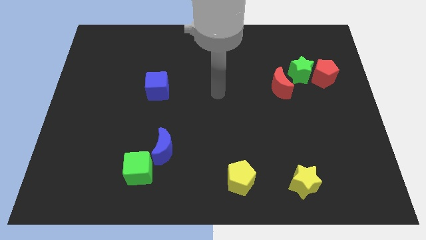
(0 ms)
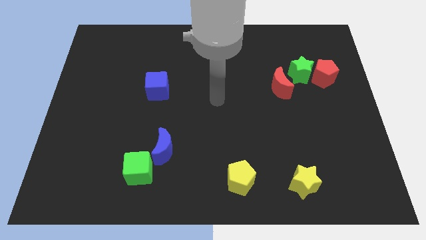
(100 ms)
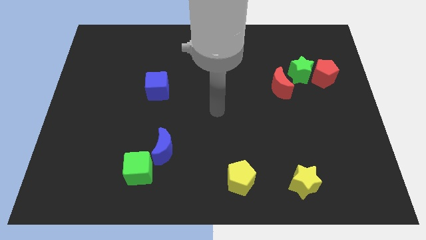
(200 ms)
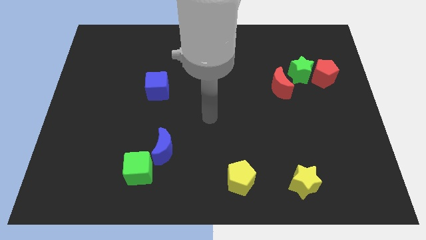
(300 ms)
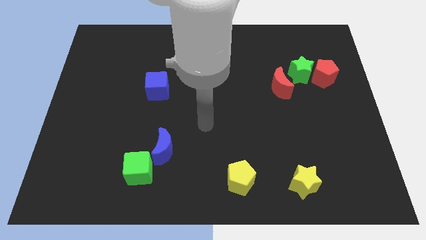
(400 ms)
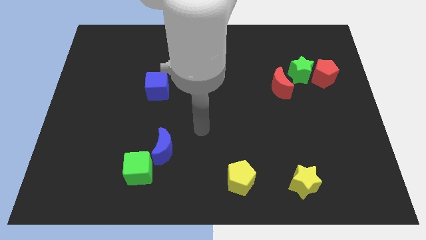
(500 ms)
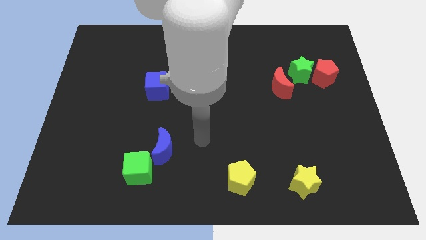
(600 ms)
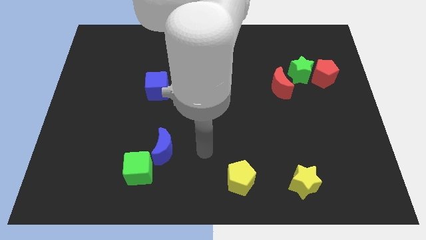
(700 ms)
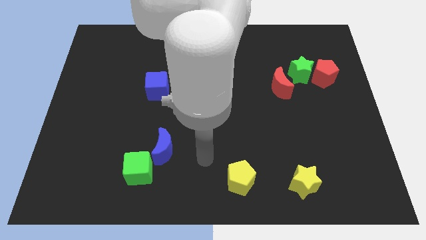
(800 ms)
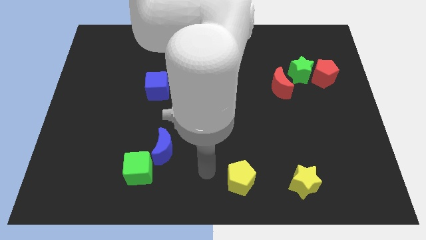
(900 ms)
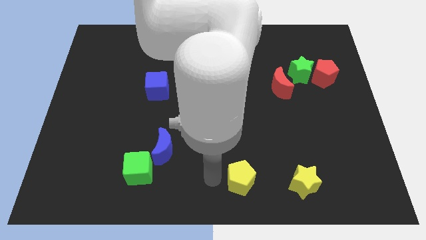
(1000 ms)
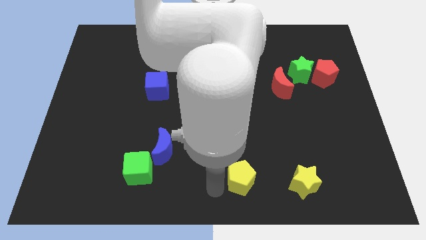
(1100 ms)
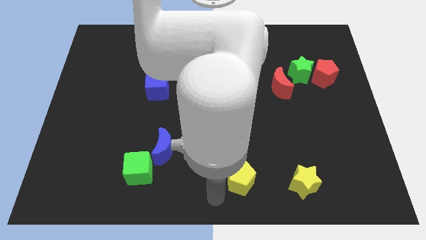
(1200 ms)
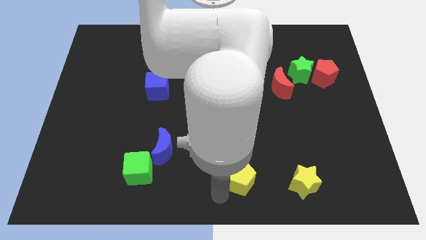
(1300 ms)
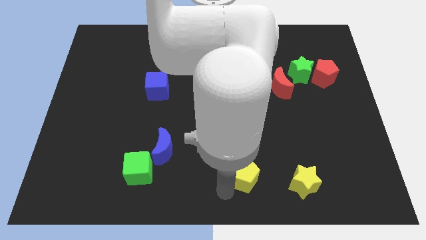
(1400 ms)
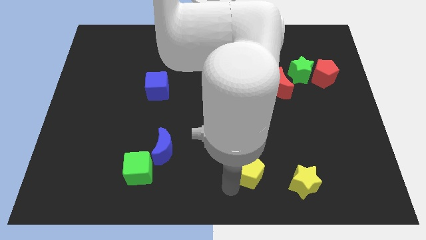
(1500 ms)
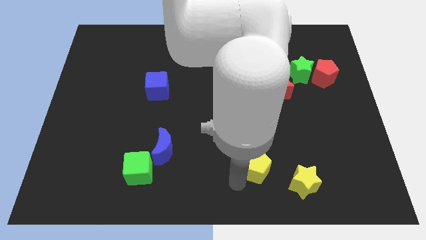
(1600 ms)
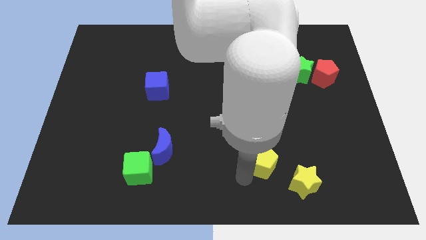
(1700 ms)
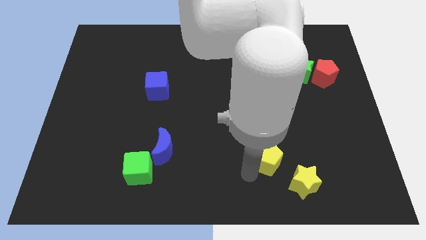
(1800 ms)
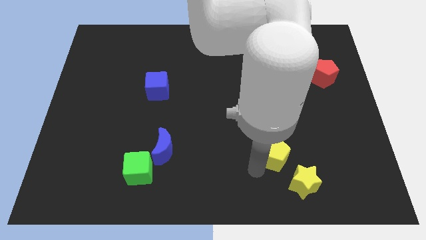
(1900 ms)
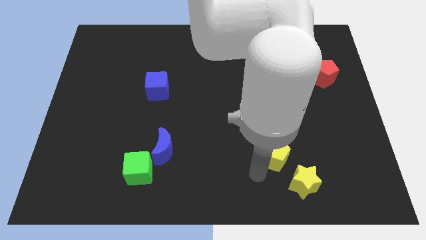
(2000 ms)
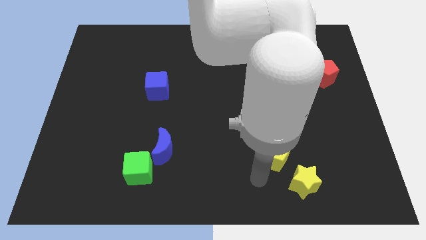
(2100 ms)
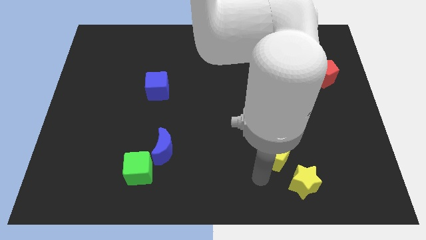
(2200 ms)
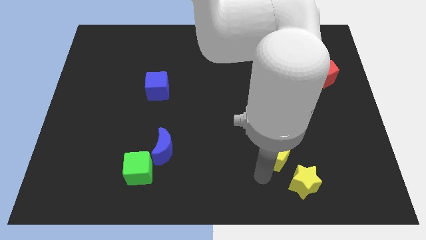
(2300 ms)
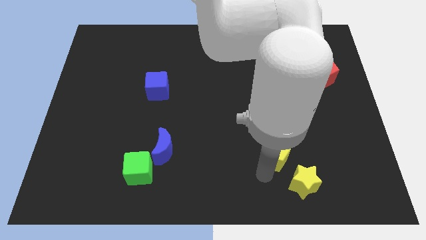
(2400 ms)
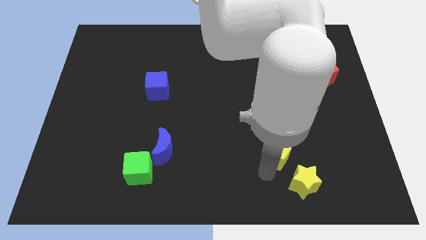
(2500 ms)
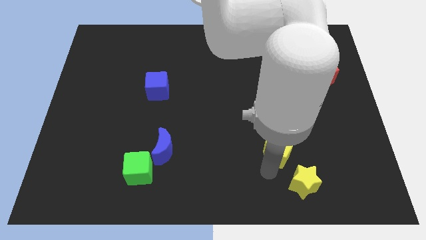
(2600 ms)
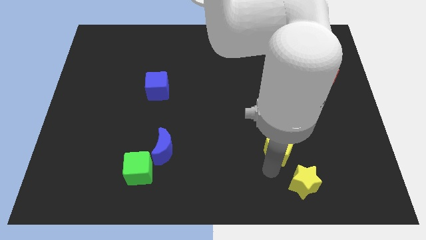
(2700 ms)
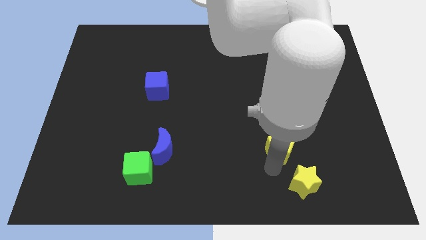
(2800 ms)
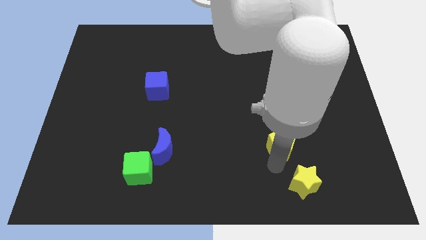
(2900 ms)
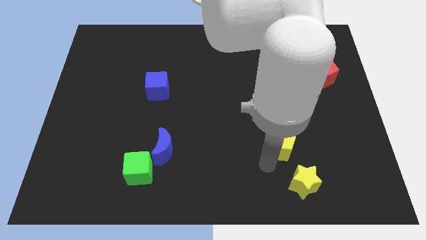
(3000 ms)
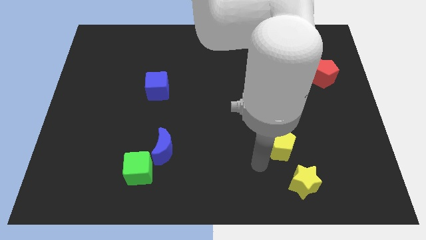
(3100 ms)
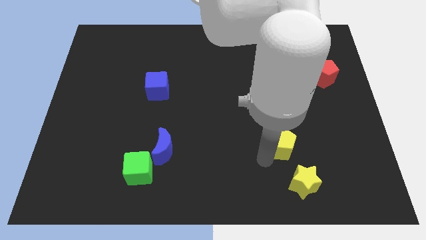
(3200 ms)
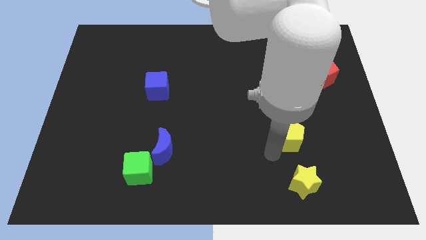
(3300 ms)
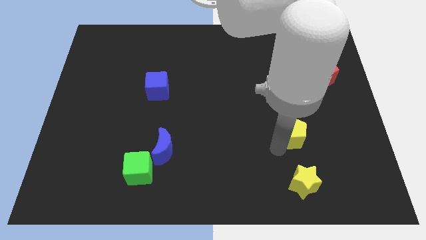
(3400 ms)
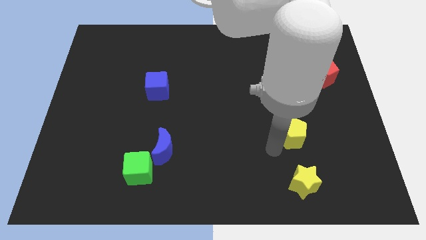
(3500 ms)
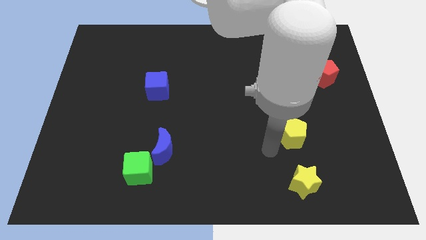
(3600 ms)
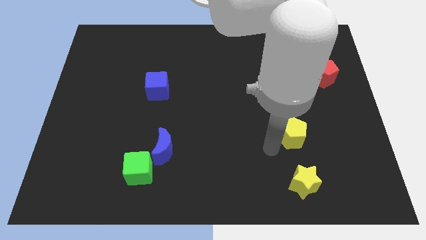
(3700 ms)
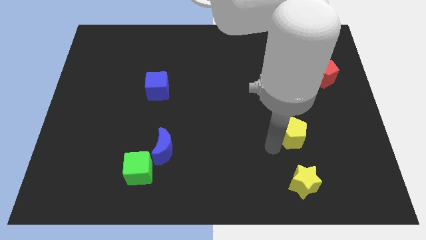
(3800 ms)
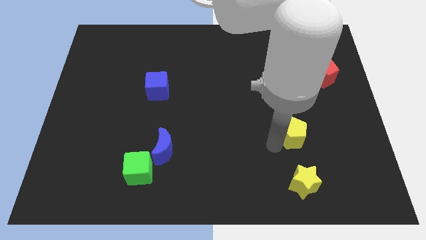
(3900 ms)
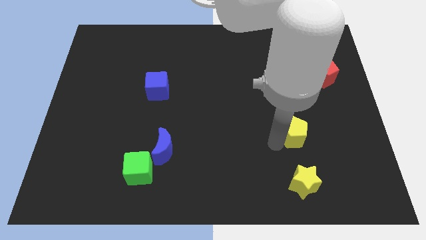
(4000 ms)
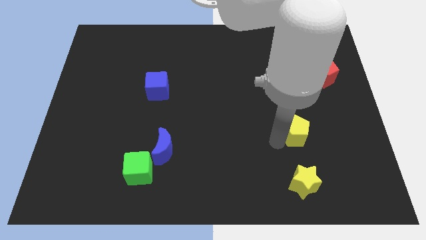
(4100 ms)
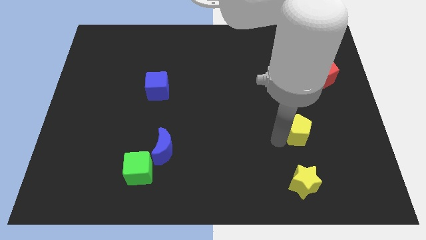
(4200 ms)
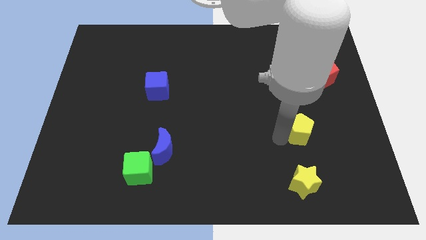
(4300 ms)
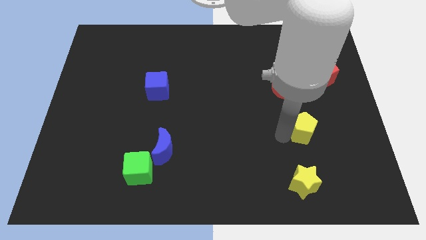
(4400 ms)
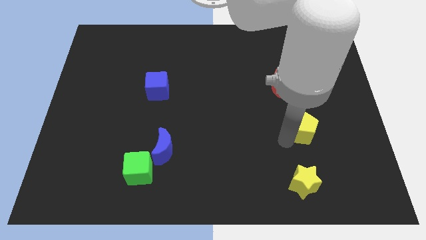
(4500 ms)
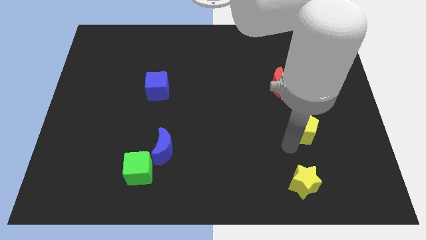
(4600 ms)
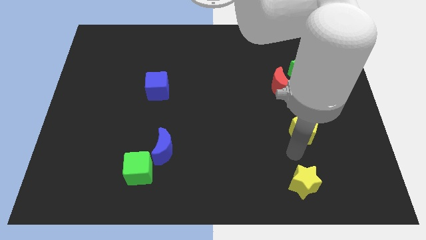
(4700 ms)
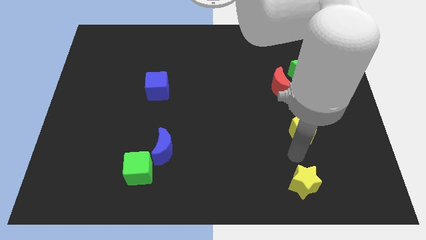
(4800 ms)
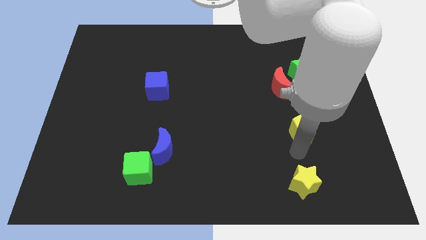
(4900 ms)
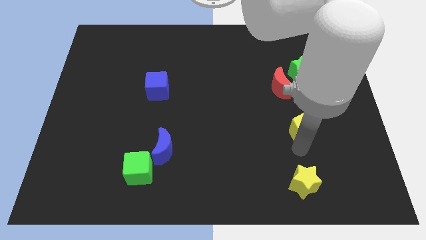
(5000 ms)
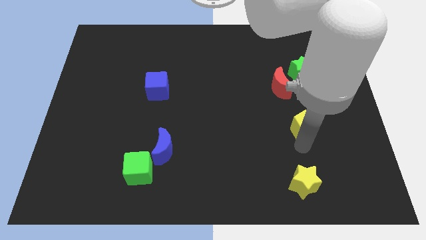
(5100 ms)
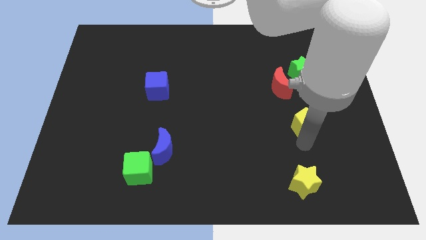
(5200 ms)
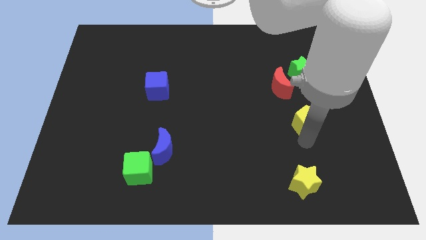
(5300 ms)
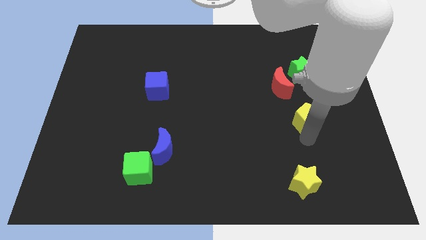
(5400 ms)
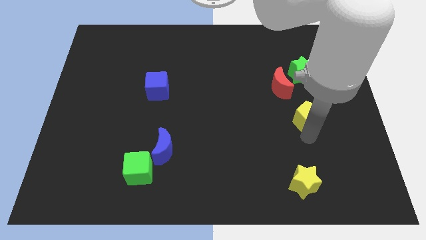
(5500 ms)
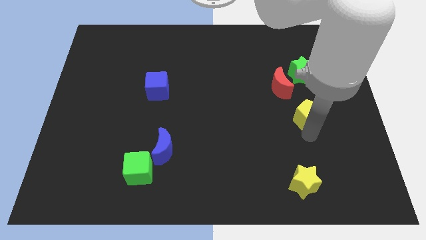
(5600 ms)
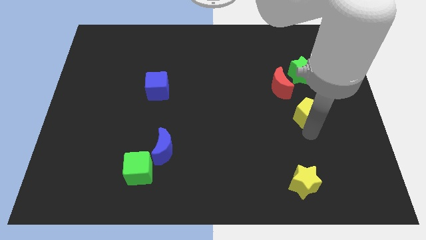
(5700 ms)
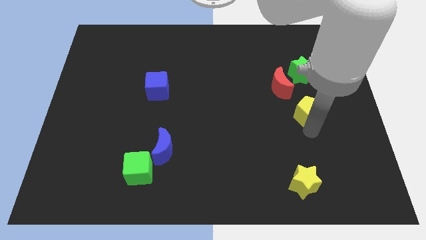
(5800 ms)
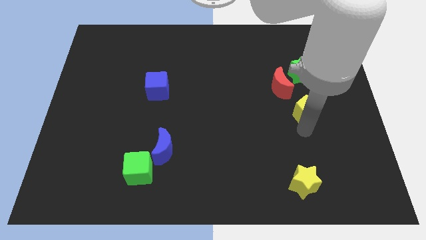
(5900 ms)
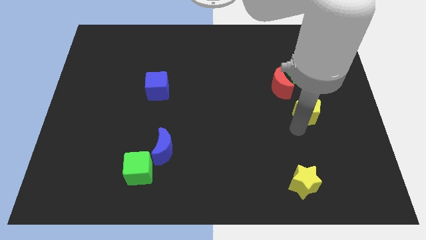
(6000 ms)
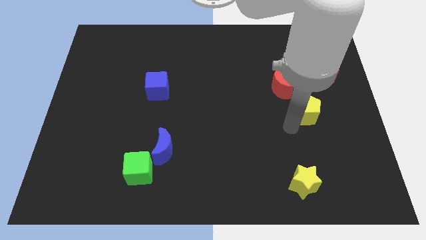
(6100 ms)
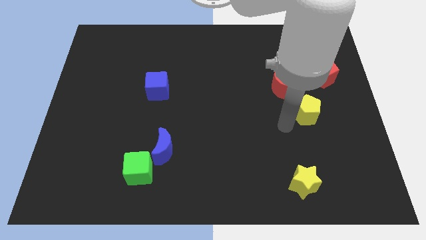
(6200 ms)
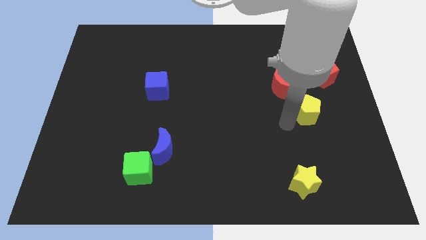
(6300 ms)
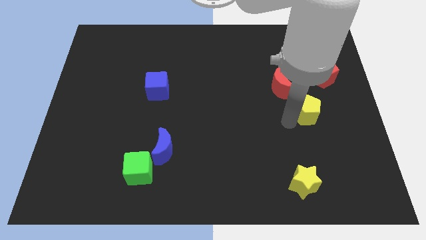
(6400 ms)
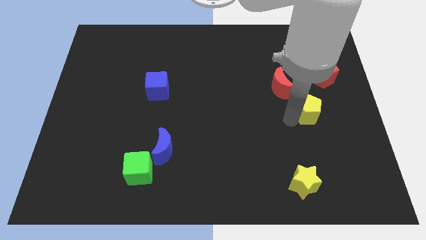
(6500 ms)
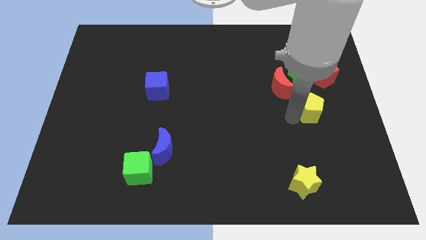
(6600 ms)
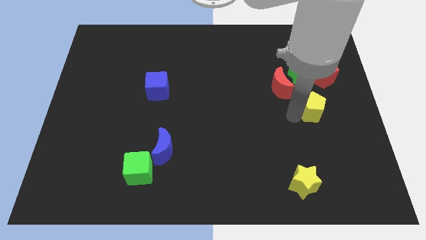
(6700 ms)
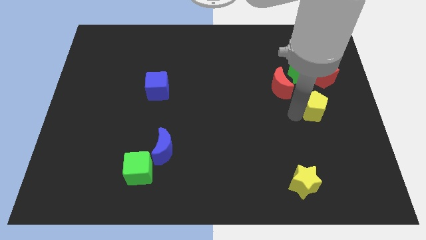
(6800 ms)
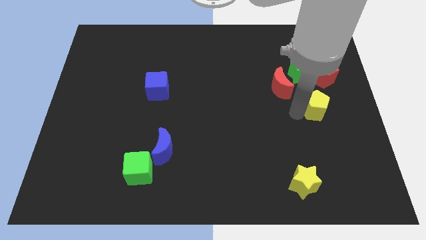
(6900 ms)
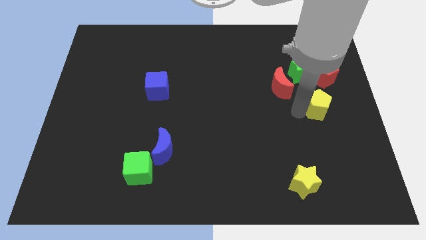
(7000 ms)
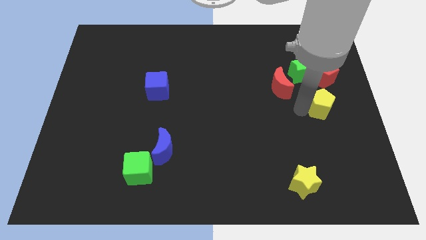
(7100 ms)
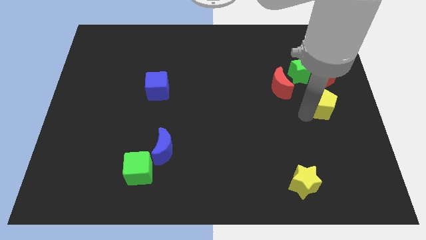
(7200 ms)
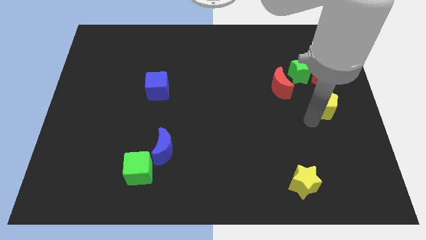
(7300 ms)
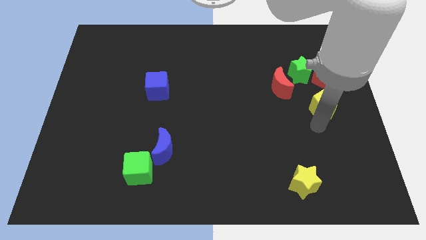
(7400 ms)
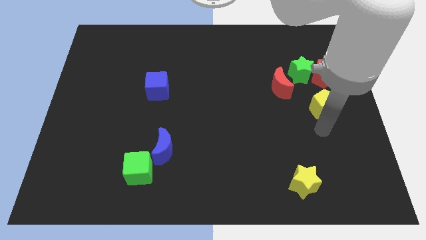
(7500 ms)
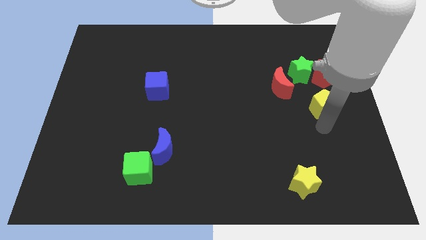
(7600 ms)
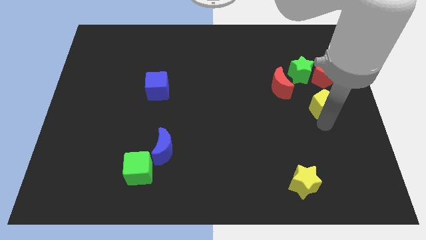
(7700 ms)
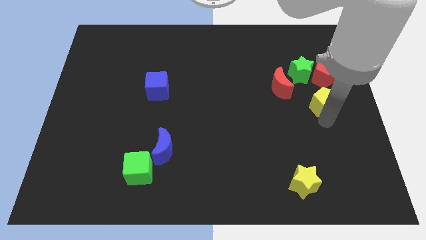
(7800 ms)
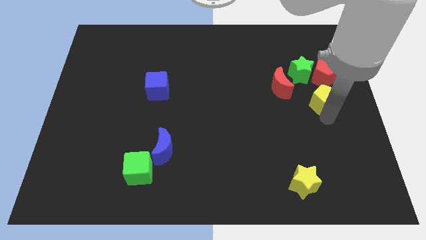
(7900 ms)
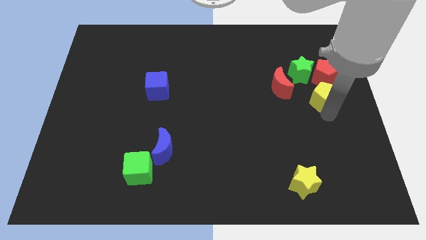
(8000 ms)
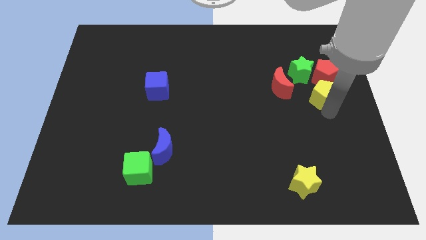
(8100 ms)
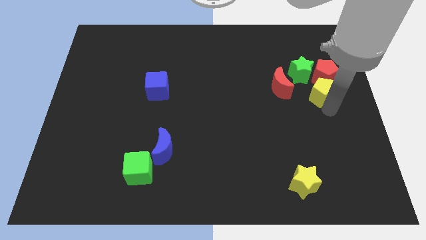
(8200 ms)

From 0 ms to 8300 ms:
slide the yellow pentagon next to the red pentagon
